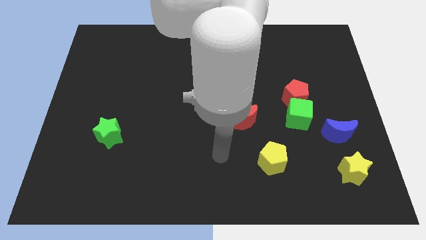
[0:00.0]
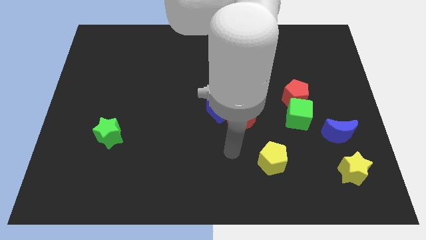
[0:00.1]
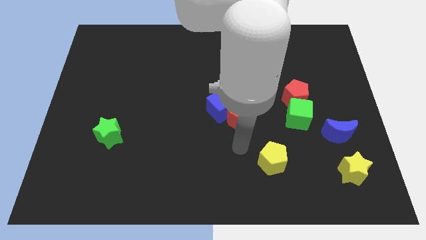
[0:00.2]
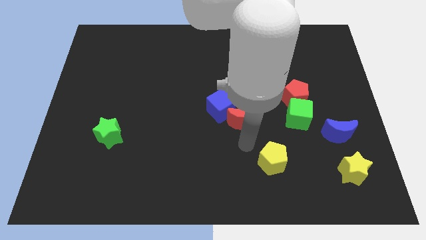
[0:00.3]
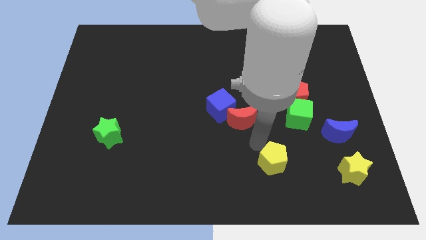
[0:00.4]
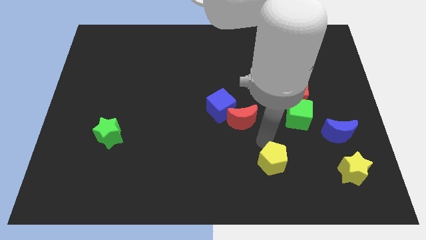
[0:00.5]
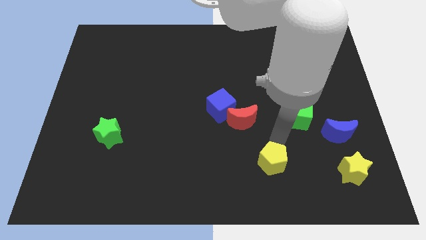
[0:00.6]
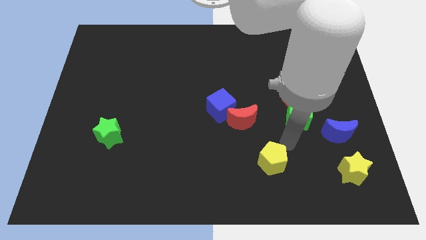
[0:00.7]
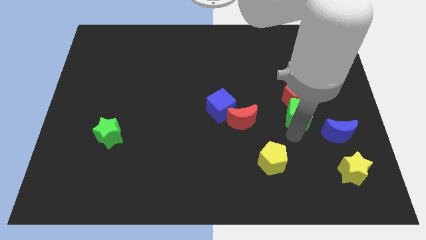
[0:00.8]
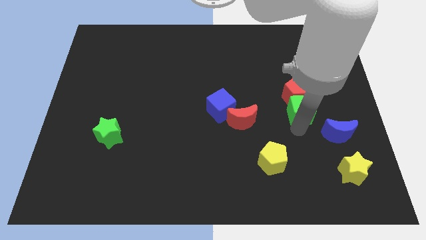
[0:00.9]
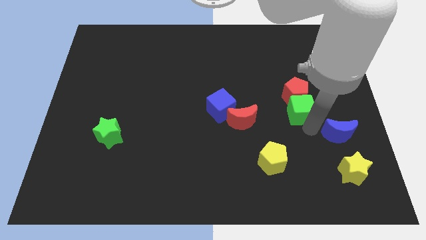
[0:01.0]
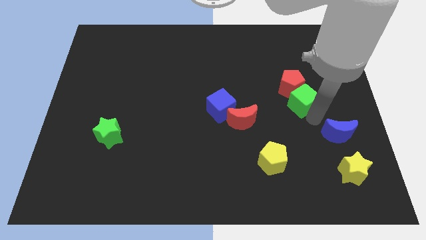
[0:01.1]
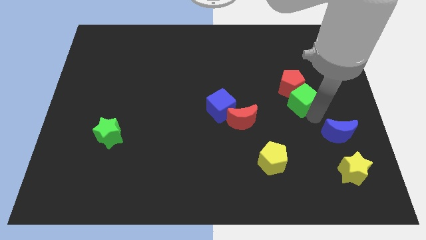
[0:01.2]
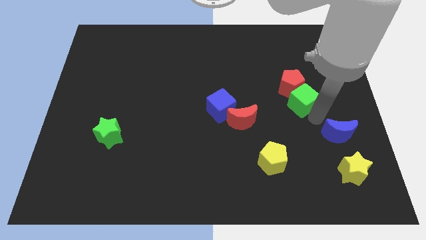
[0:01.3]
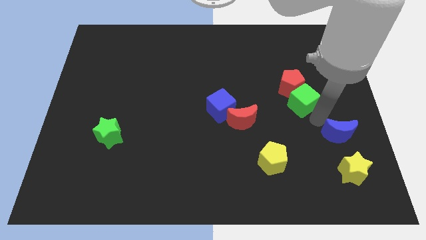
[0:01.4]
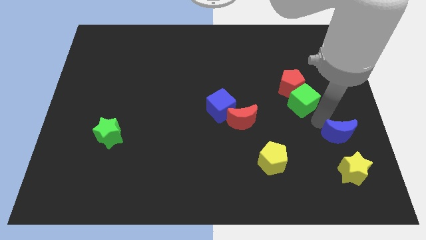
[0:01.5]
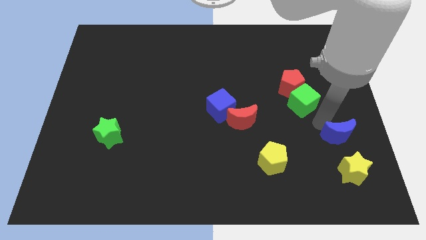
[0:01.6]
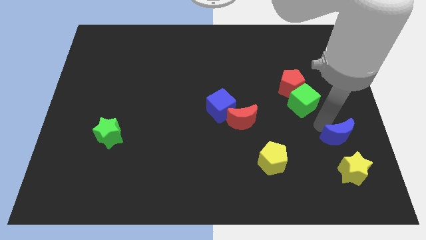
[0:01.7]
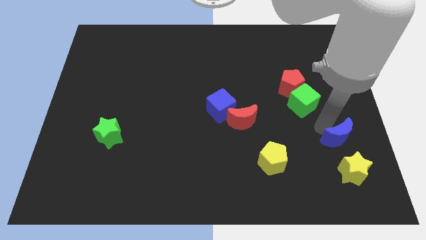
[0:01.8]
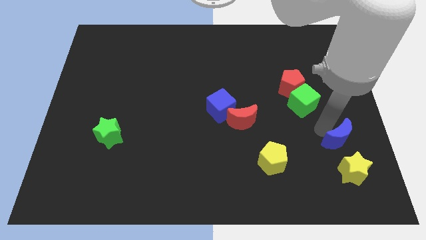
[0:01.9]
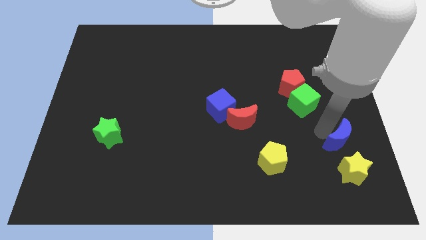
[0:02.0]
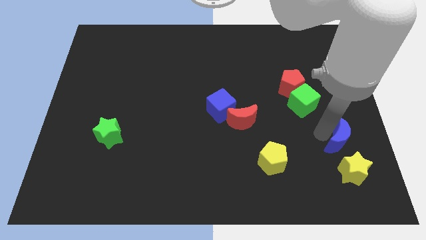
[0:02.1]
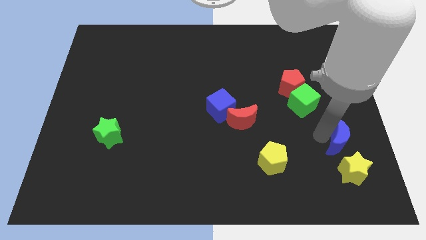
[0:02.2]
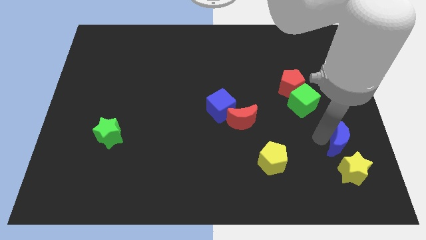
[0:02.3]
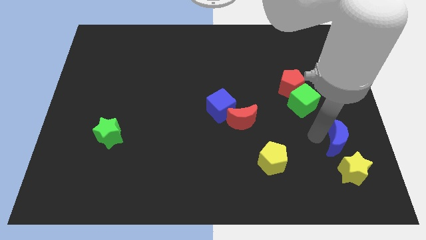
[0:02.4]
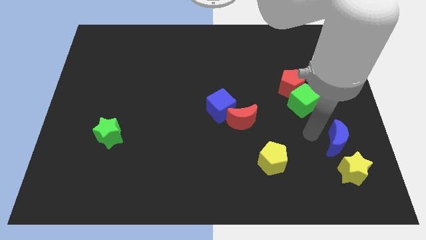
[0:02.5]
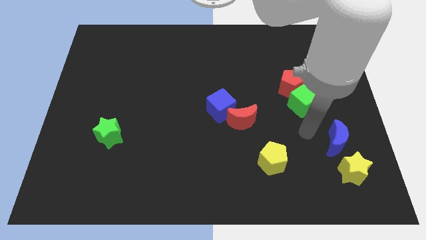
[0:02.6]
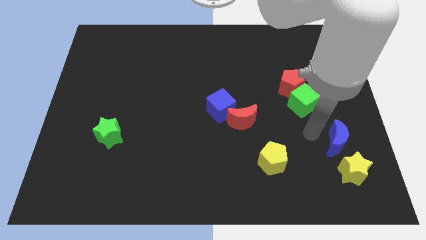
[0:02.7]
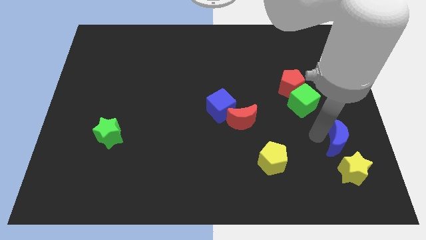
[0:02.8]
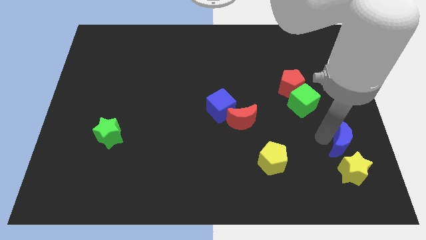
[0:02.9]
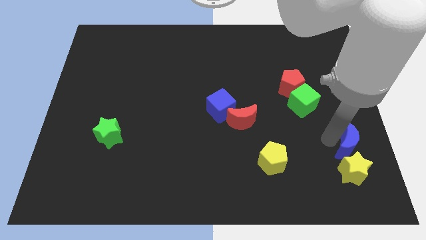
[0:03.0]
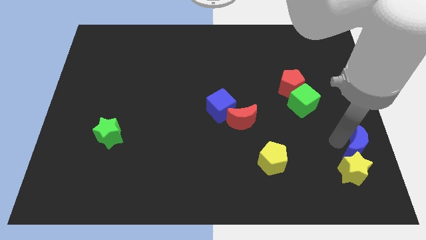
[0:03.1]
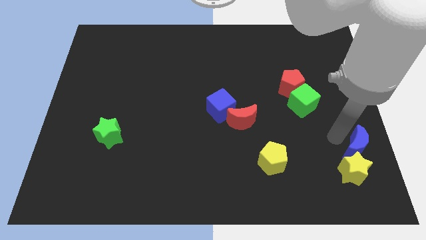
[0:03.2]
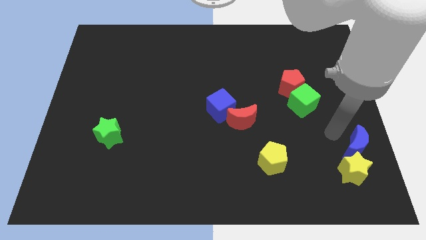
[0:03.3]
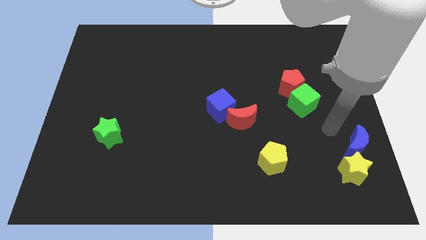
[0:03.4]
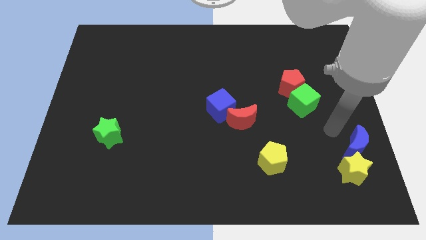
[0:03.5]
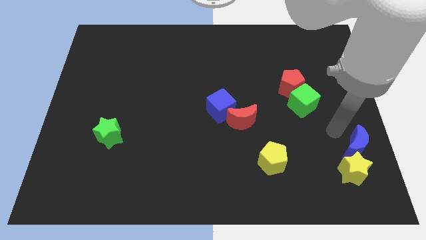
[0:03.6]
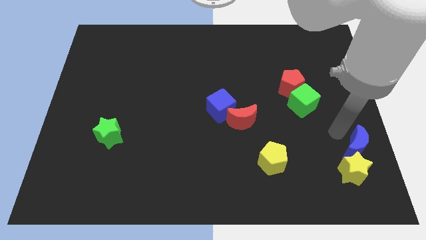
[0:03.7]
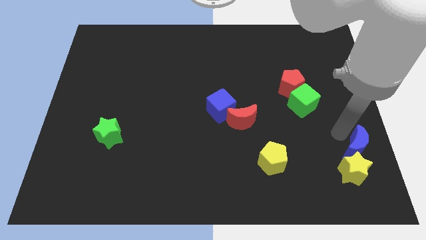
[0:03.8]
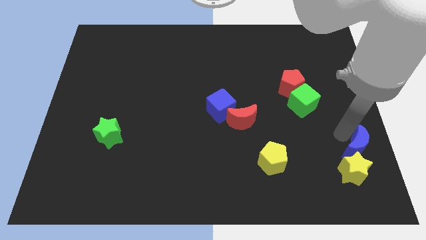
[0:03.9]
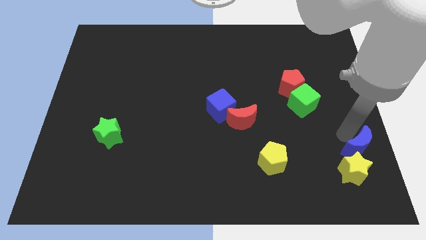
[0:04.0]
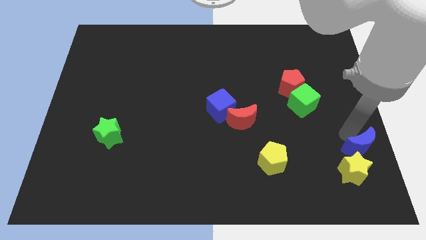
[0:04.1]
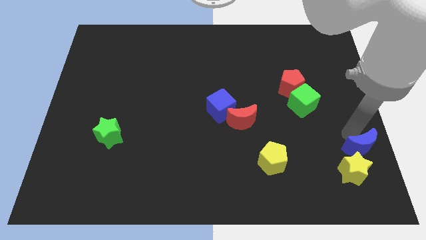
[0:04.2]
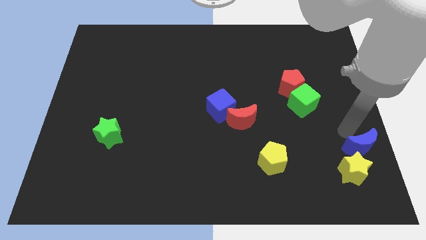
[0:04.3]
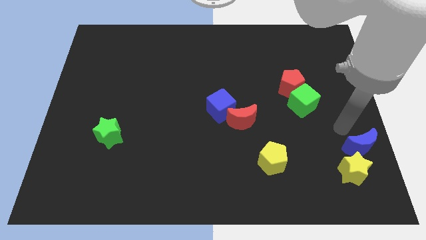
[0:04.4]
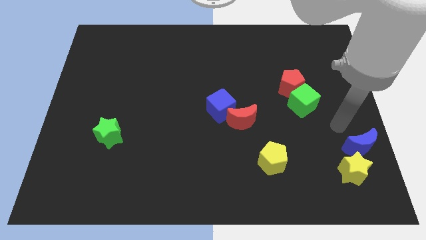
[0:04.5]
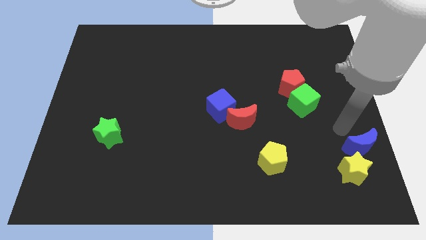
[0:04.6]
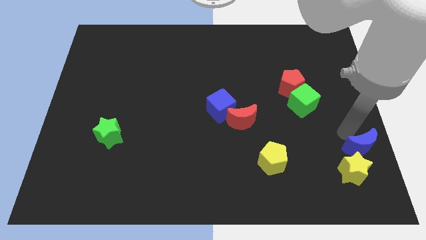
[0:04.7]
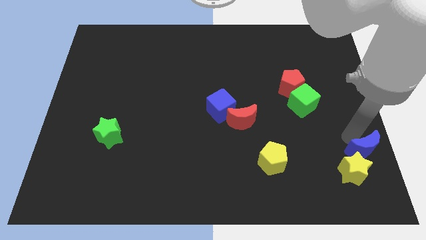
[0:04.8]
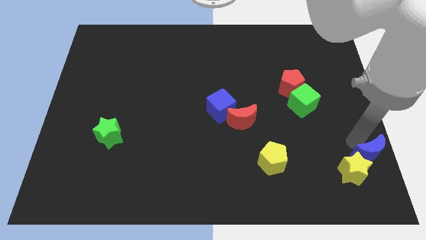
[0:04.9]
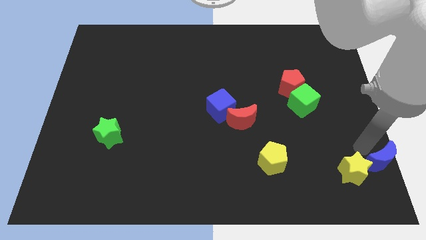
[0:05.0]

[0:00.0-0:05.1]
put the blue moon to the bottom right of the board

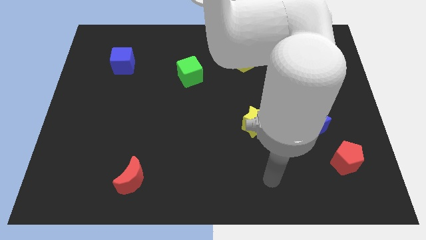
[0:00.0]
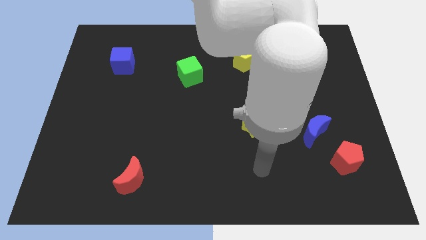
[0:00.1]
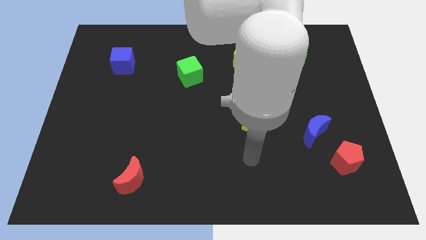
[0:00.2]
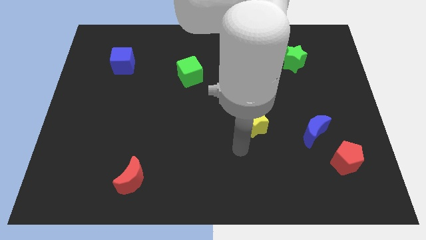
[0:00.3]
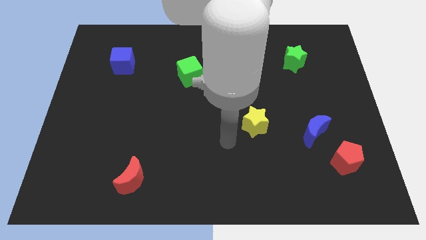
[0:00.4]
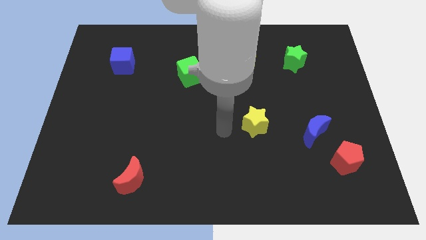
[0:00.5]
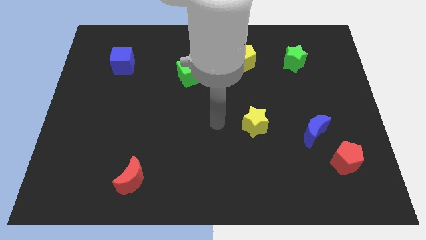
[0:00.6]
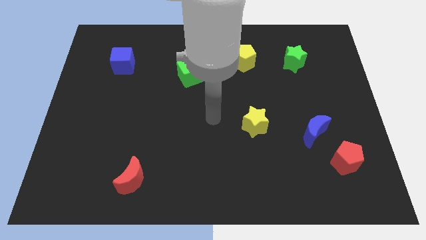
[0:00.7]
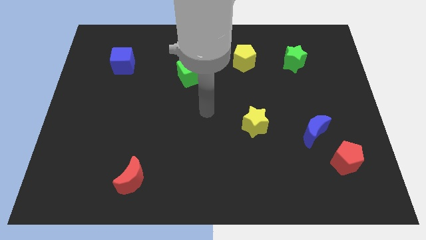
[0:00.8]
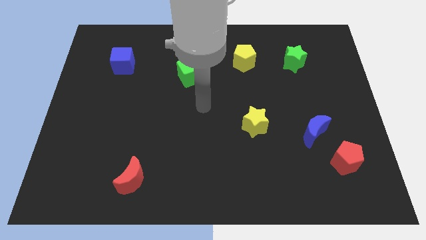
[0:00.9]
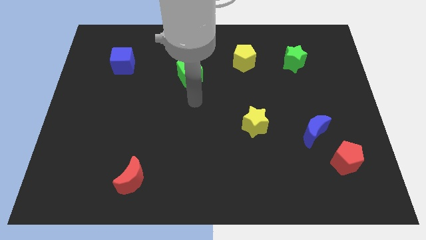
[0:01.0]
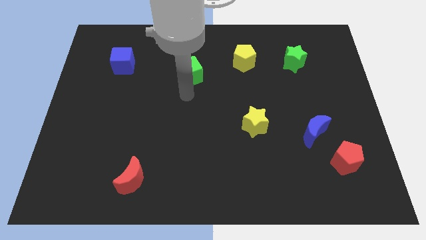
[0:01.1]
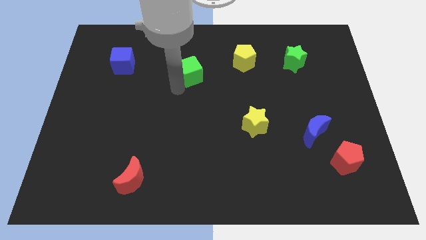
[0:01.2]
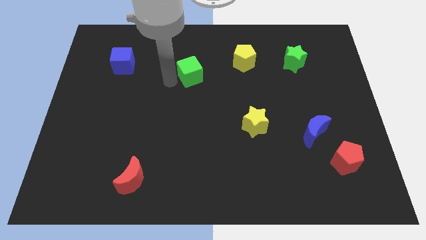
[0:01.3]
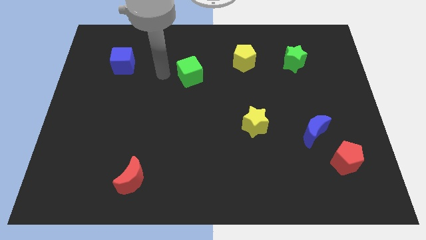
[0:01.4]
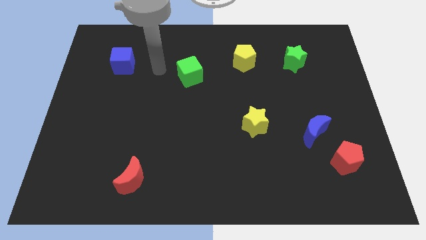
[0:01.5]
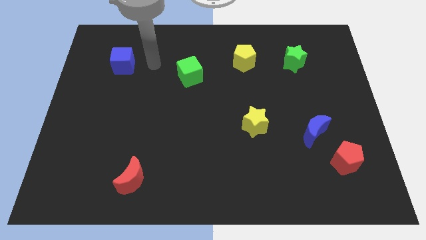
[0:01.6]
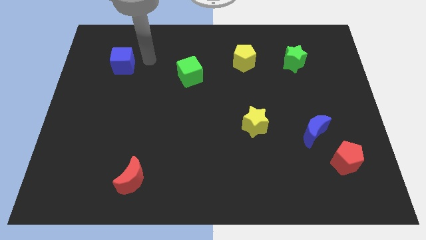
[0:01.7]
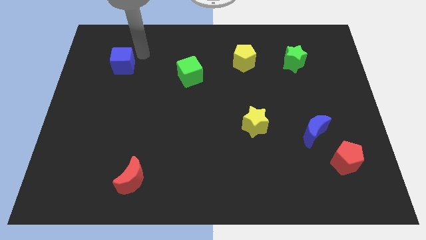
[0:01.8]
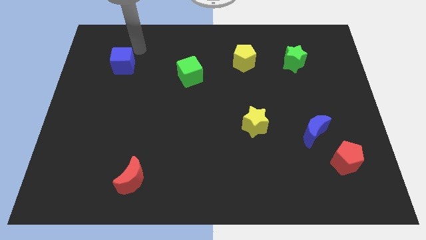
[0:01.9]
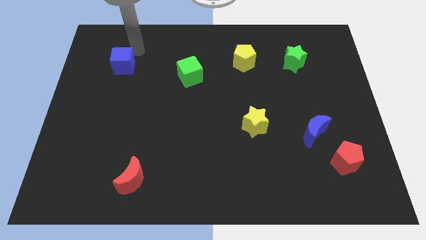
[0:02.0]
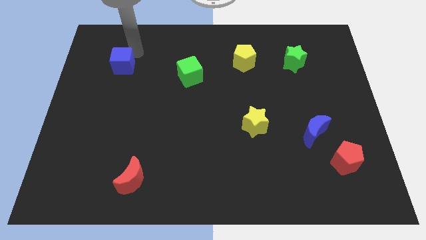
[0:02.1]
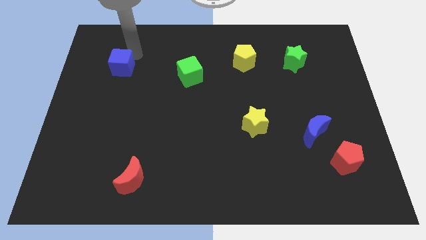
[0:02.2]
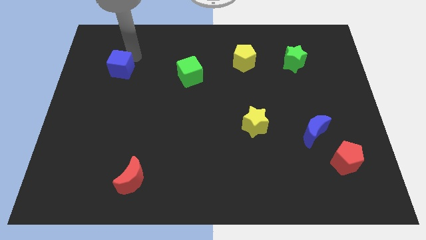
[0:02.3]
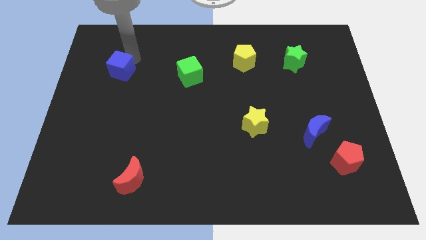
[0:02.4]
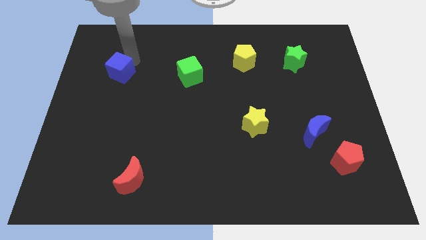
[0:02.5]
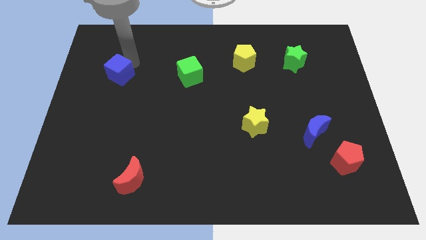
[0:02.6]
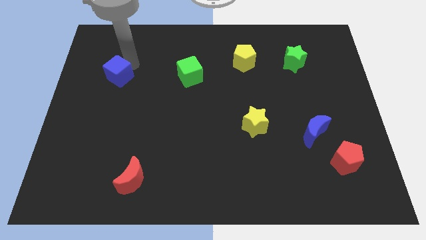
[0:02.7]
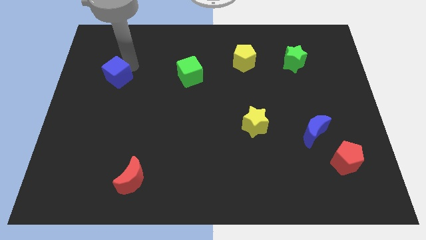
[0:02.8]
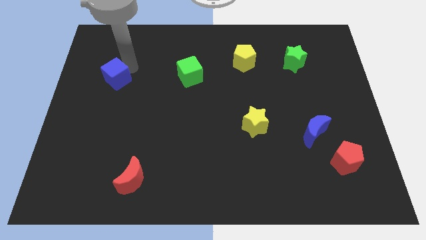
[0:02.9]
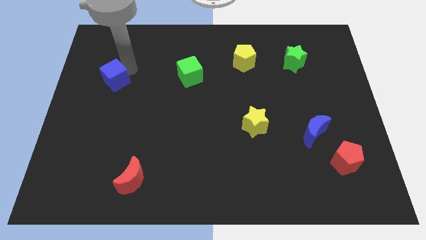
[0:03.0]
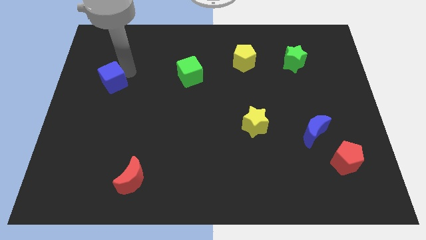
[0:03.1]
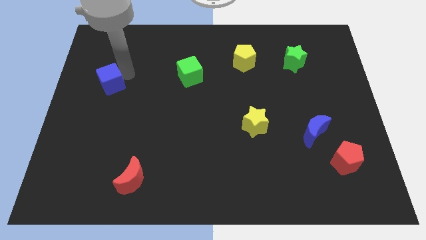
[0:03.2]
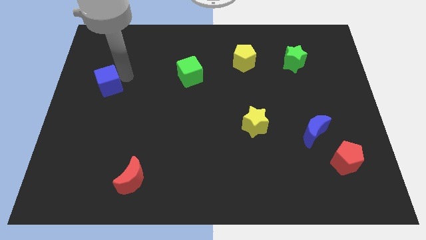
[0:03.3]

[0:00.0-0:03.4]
push the blue cube to the left side
